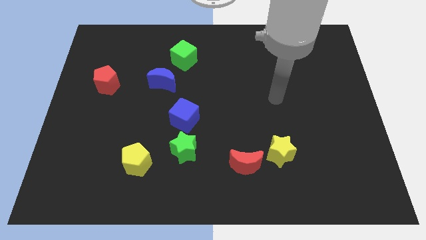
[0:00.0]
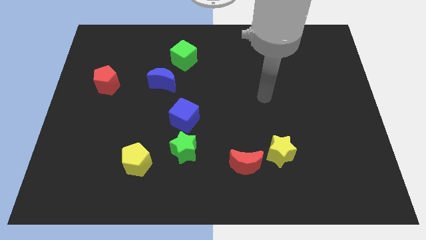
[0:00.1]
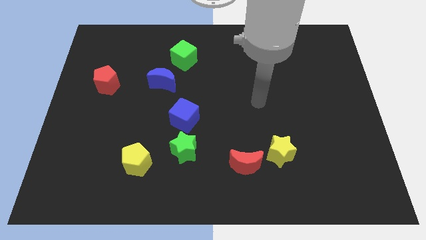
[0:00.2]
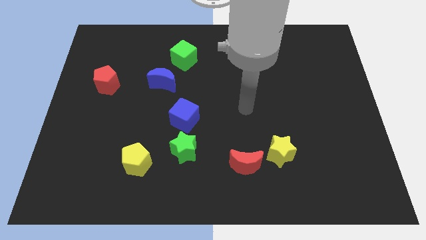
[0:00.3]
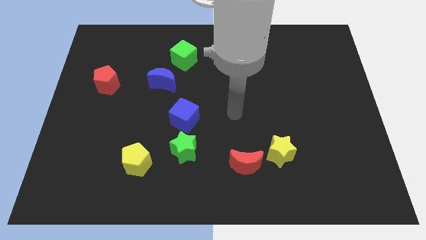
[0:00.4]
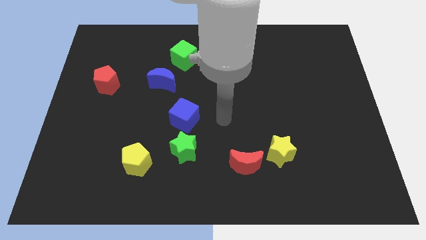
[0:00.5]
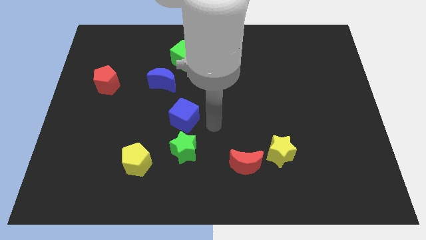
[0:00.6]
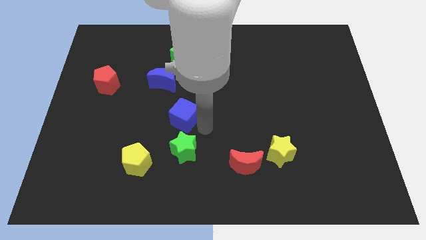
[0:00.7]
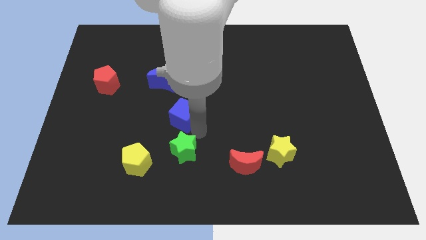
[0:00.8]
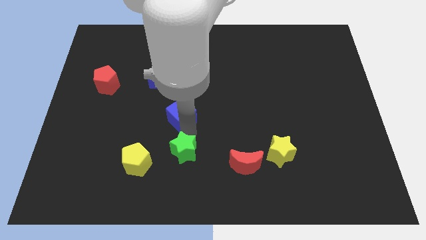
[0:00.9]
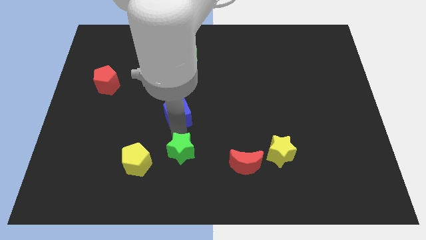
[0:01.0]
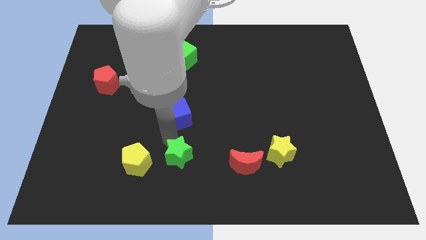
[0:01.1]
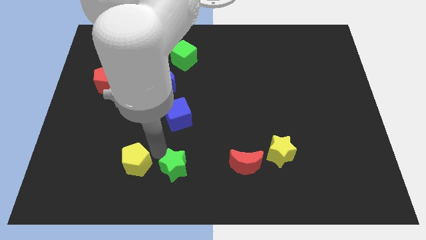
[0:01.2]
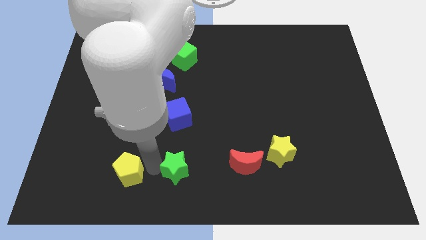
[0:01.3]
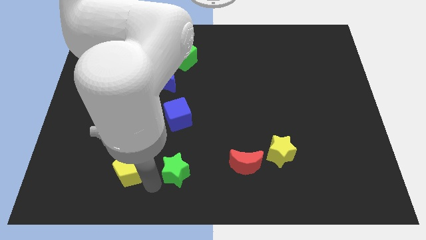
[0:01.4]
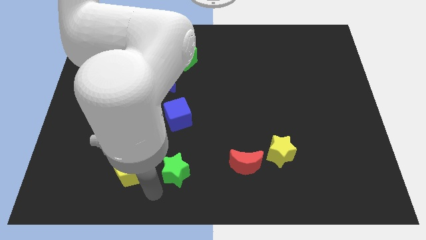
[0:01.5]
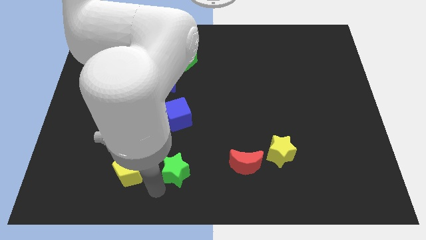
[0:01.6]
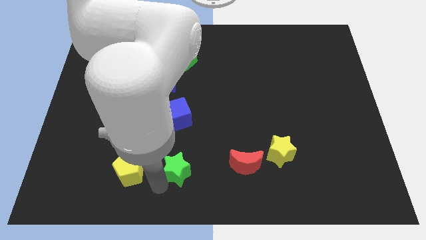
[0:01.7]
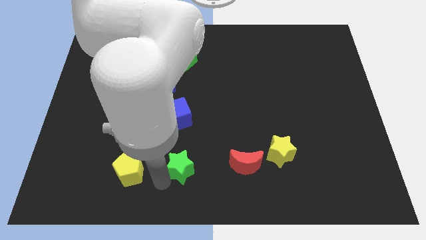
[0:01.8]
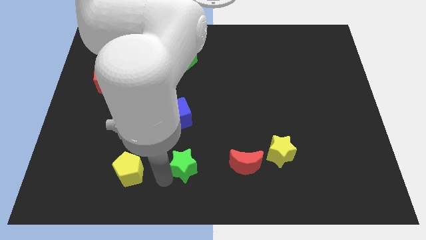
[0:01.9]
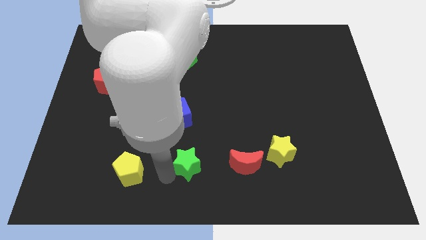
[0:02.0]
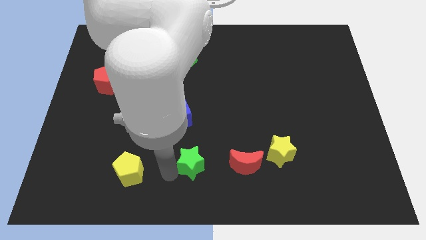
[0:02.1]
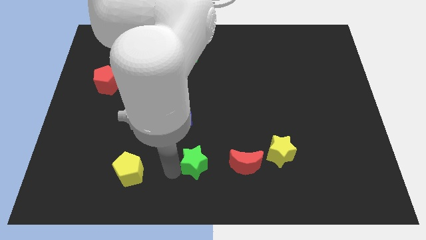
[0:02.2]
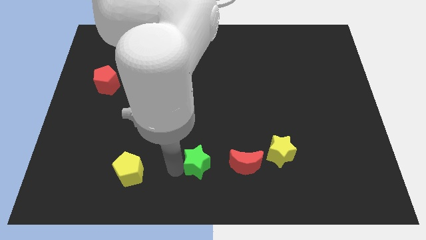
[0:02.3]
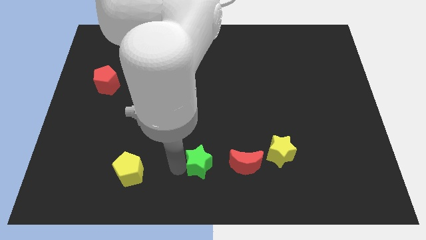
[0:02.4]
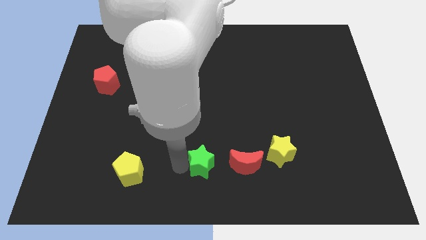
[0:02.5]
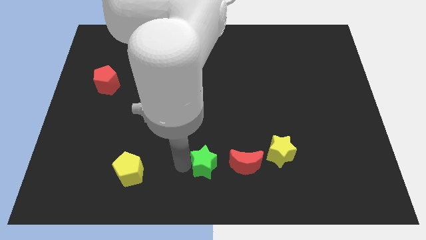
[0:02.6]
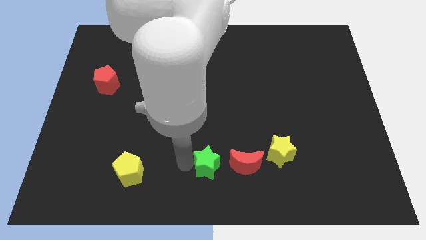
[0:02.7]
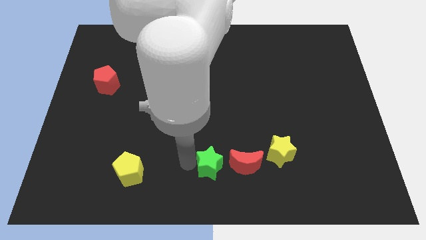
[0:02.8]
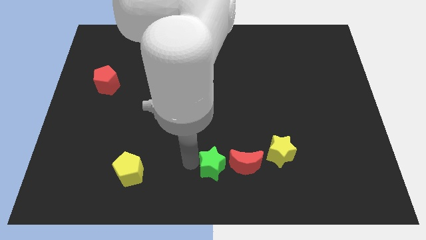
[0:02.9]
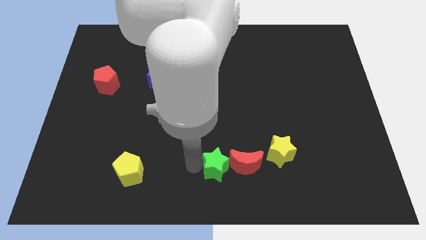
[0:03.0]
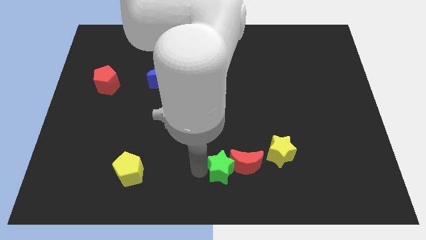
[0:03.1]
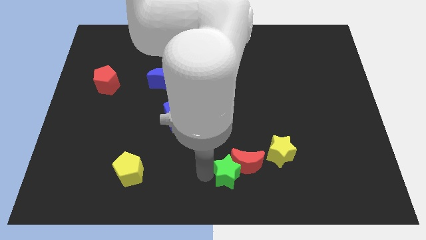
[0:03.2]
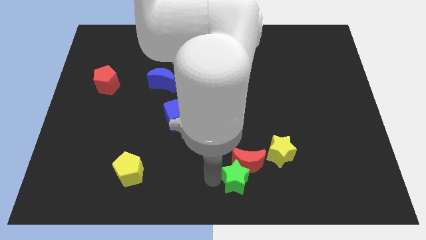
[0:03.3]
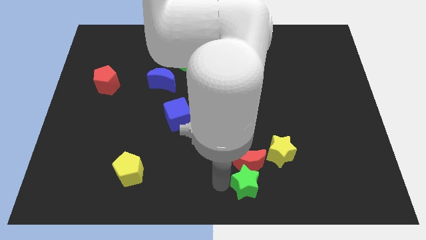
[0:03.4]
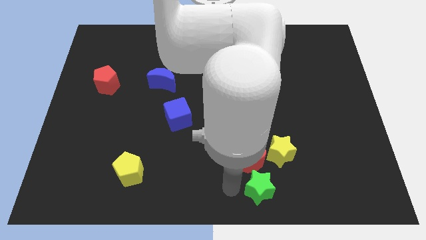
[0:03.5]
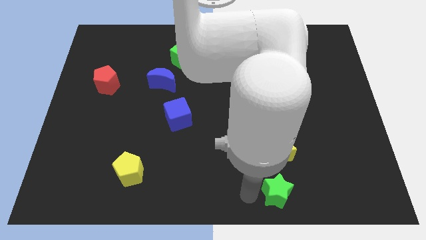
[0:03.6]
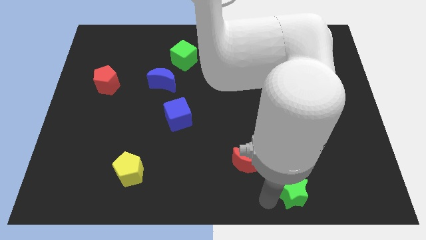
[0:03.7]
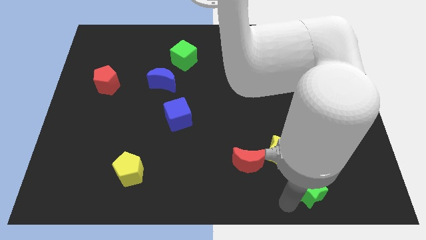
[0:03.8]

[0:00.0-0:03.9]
push the green star to the right

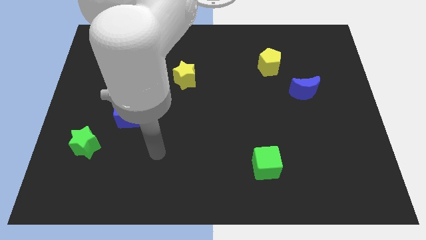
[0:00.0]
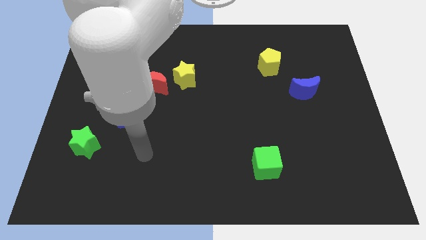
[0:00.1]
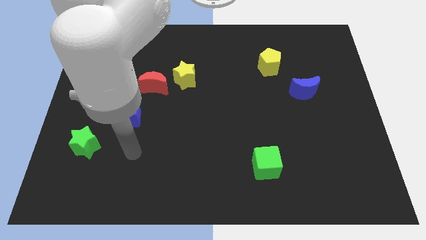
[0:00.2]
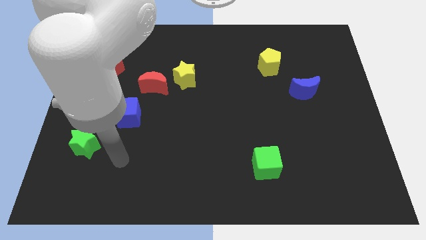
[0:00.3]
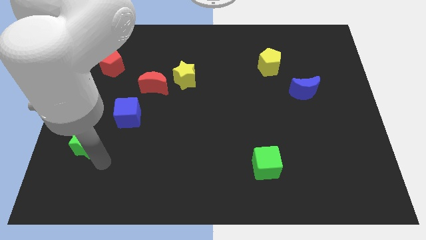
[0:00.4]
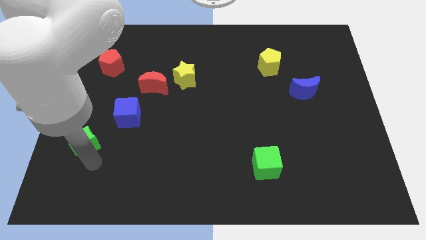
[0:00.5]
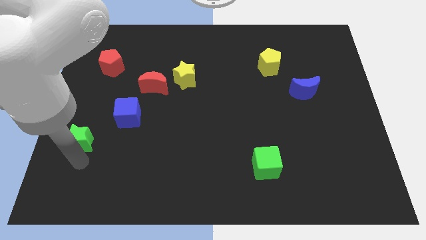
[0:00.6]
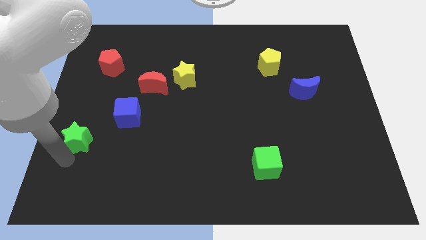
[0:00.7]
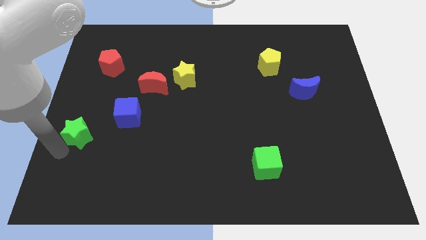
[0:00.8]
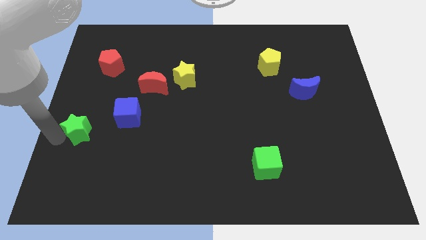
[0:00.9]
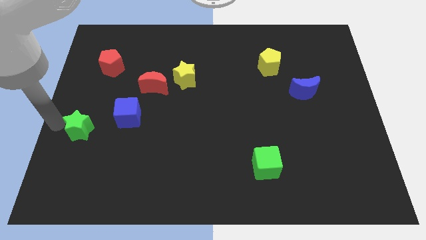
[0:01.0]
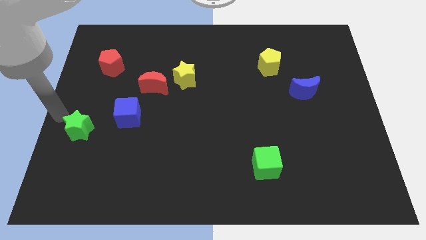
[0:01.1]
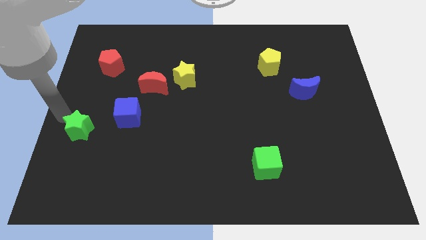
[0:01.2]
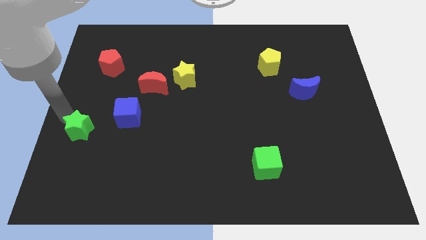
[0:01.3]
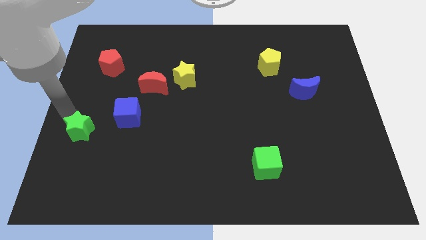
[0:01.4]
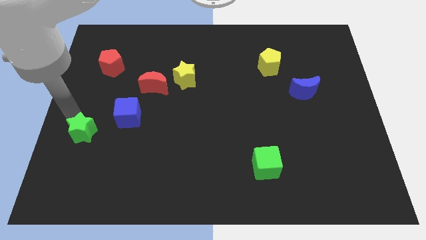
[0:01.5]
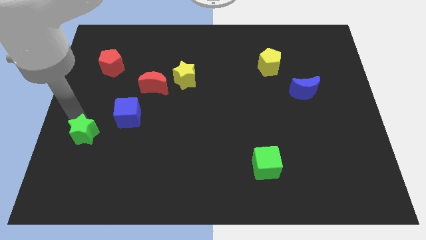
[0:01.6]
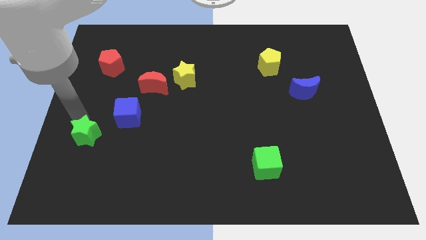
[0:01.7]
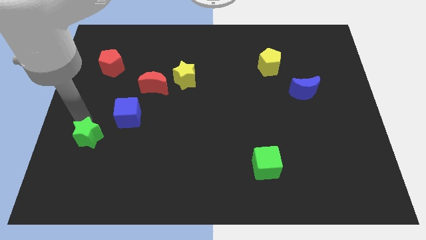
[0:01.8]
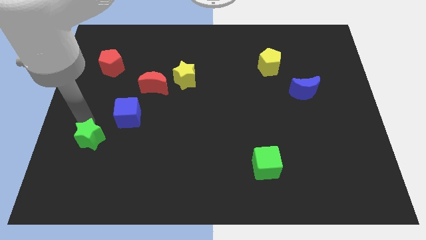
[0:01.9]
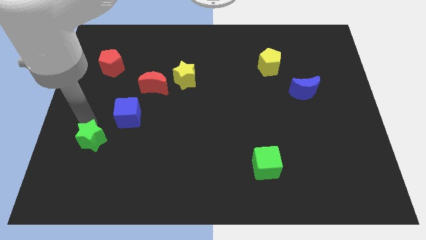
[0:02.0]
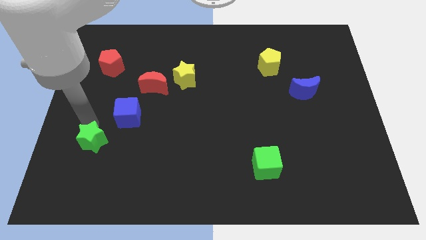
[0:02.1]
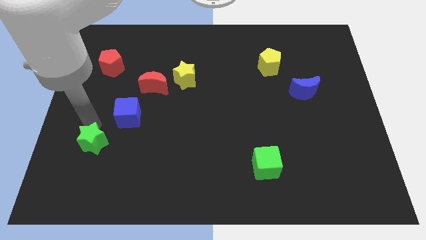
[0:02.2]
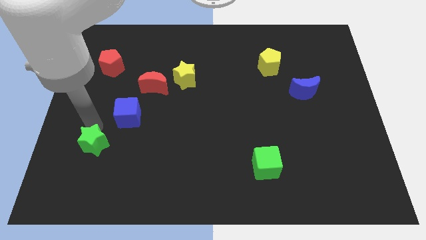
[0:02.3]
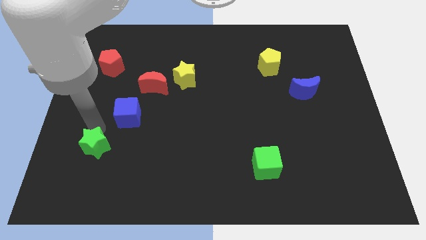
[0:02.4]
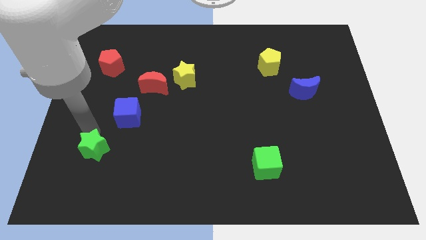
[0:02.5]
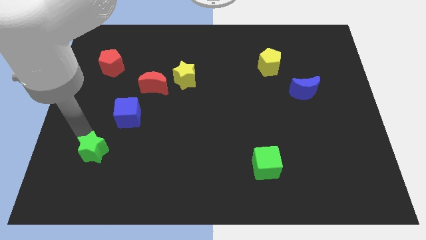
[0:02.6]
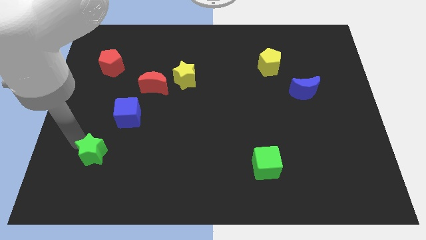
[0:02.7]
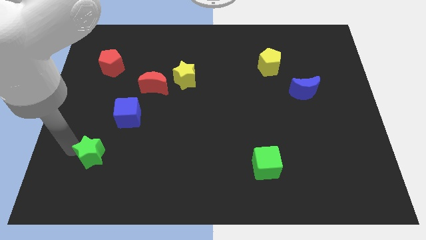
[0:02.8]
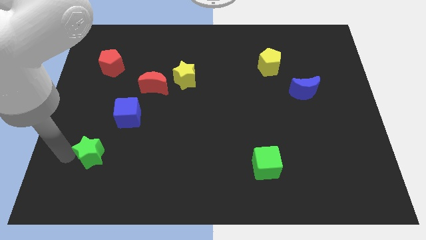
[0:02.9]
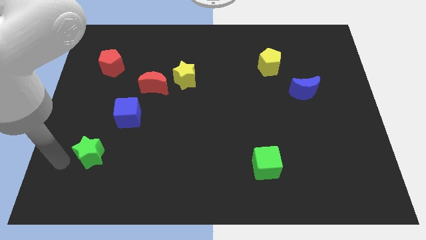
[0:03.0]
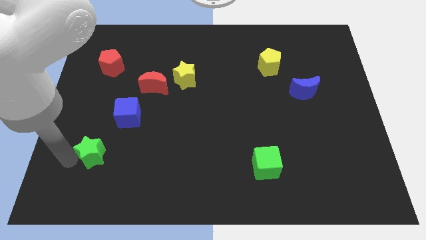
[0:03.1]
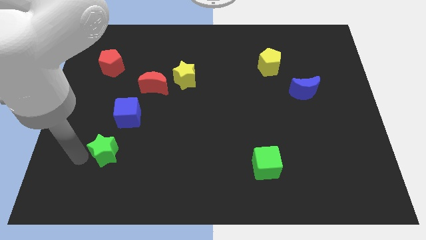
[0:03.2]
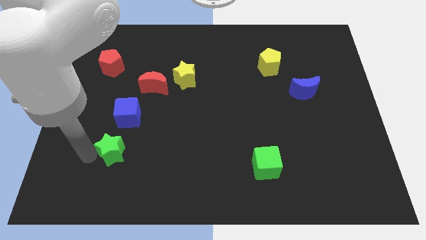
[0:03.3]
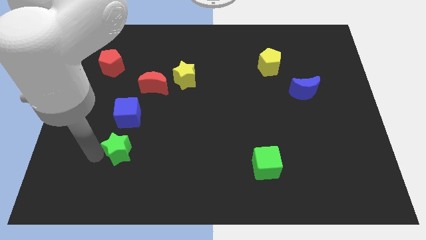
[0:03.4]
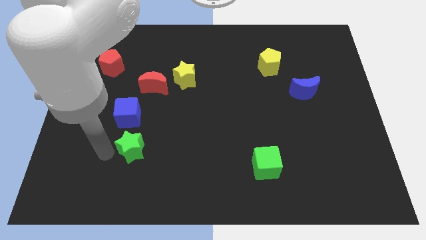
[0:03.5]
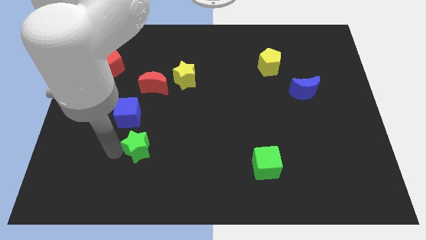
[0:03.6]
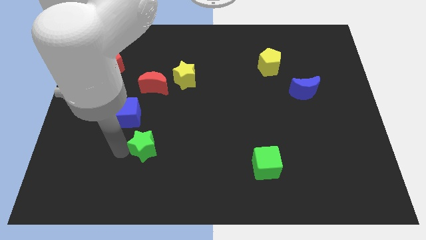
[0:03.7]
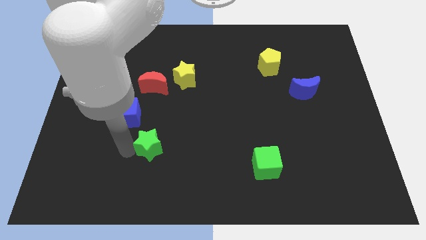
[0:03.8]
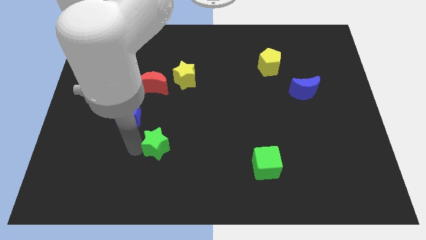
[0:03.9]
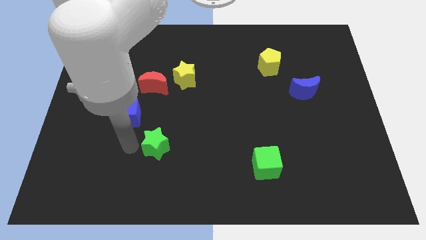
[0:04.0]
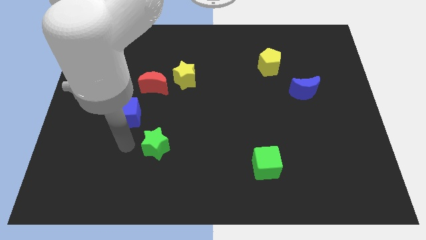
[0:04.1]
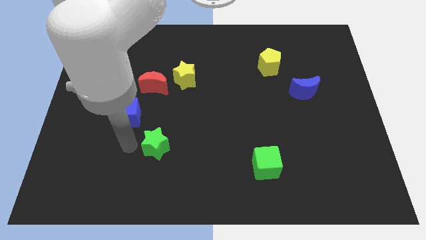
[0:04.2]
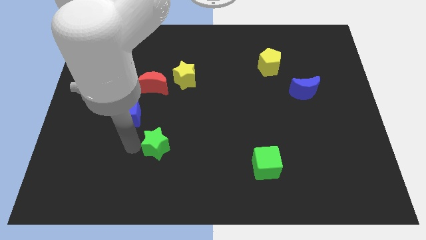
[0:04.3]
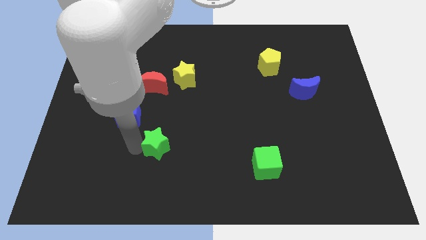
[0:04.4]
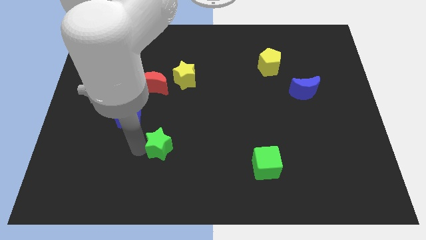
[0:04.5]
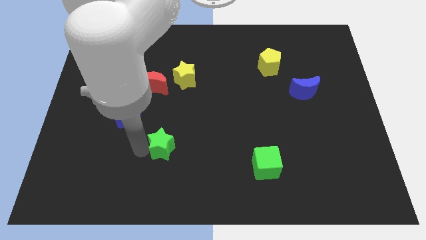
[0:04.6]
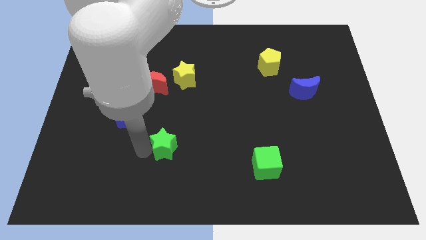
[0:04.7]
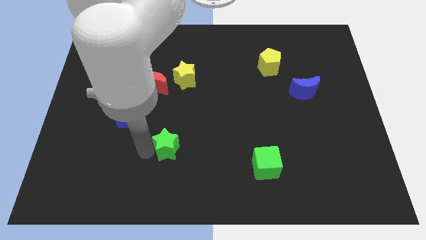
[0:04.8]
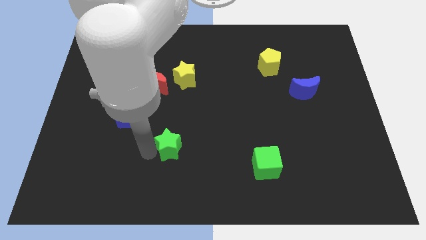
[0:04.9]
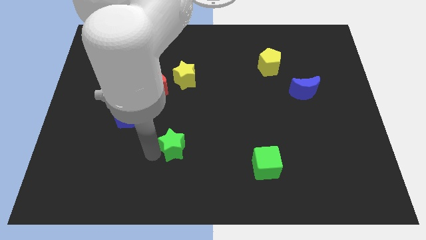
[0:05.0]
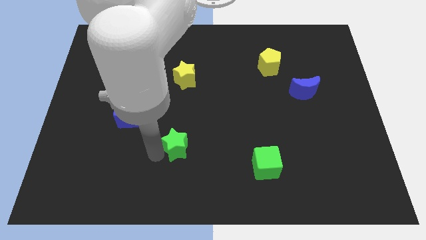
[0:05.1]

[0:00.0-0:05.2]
move the green star right
